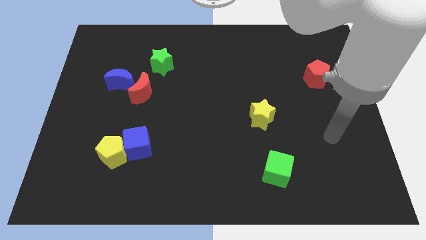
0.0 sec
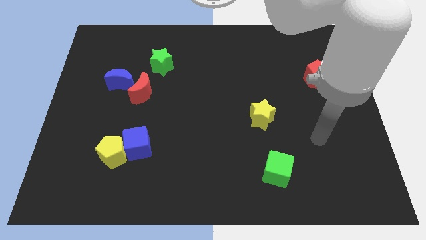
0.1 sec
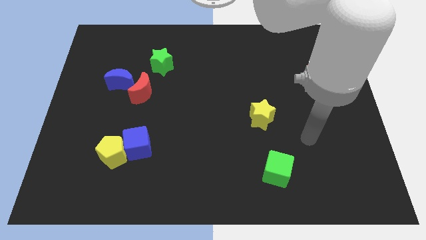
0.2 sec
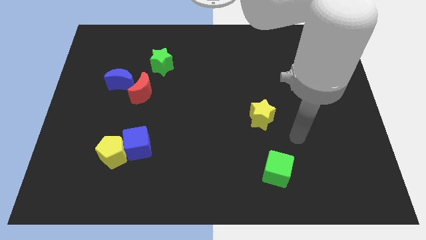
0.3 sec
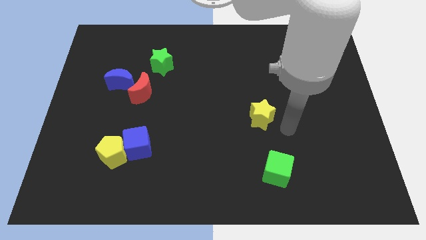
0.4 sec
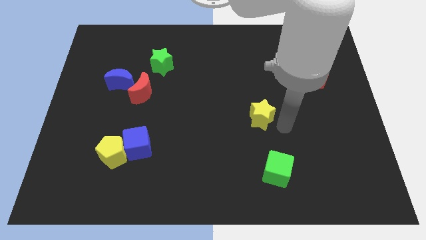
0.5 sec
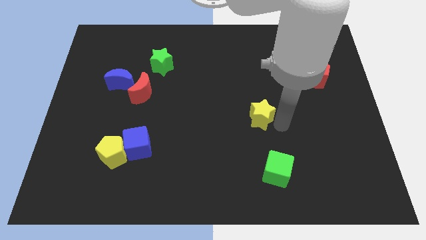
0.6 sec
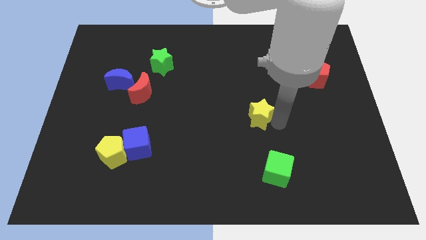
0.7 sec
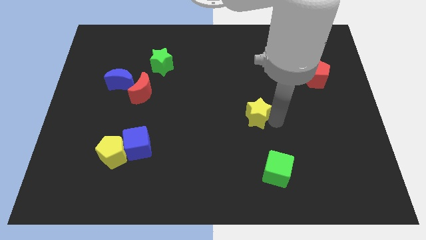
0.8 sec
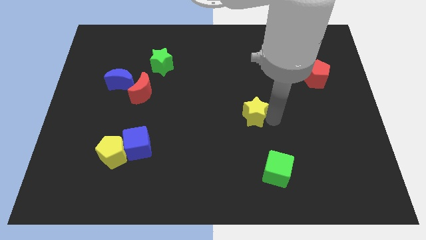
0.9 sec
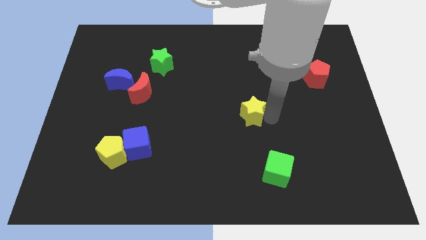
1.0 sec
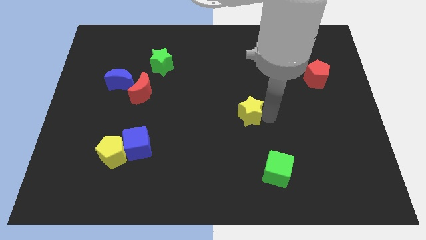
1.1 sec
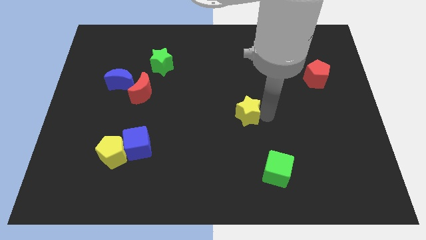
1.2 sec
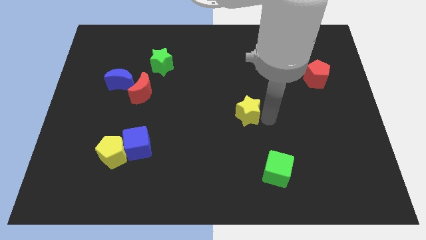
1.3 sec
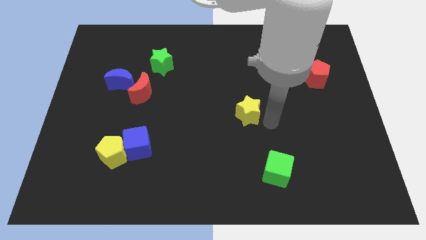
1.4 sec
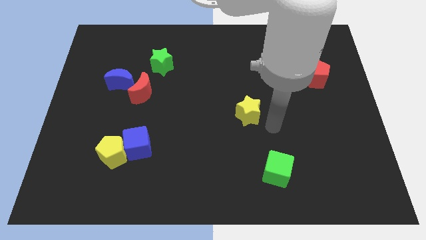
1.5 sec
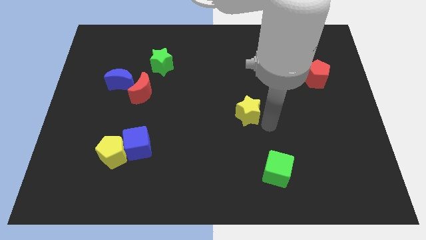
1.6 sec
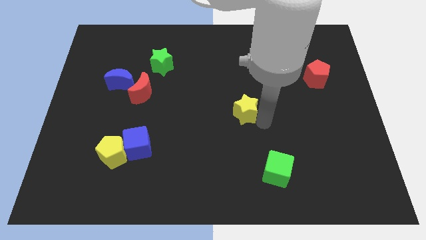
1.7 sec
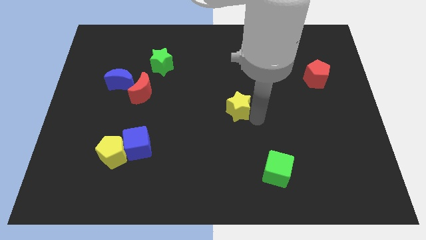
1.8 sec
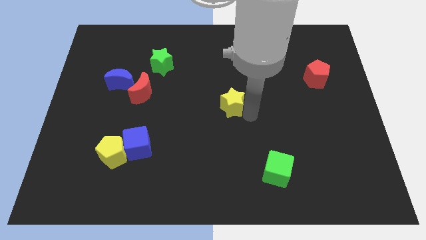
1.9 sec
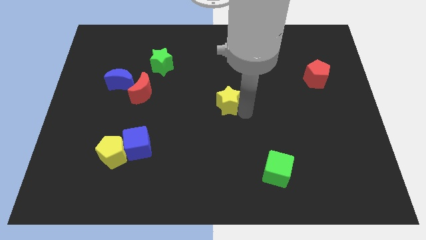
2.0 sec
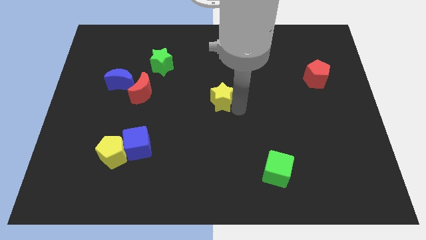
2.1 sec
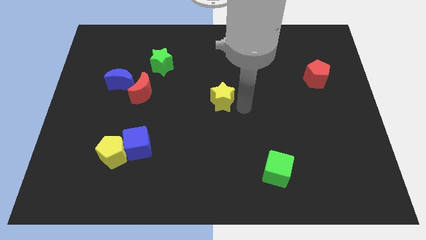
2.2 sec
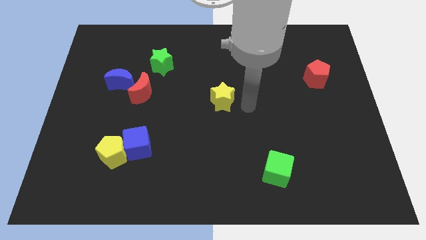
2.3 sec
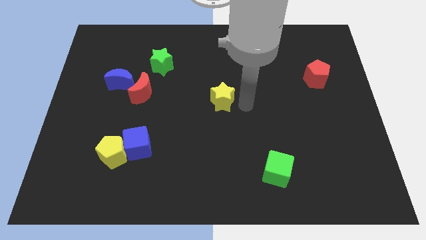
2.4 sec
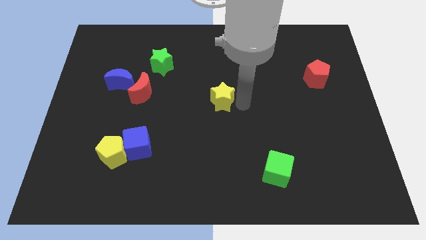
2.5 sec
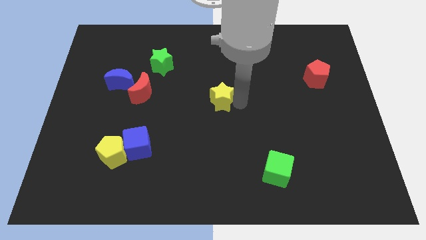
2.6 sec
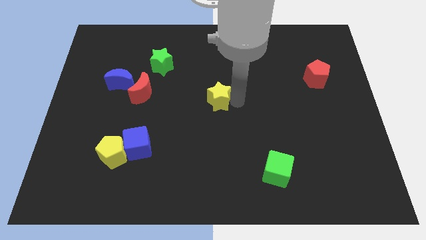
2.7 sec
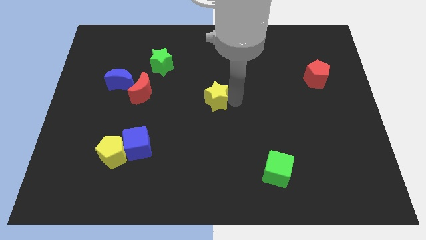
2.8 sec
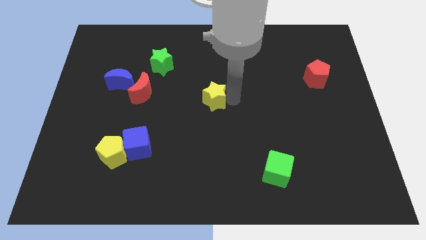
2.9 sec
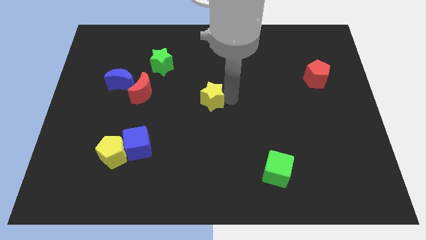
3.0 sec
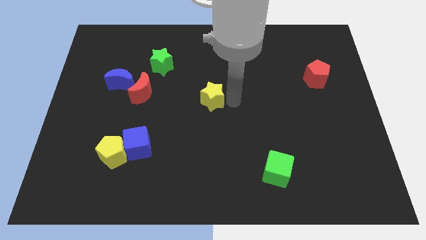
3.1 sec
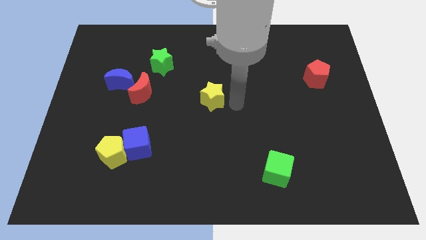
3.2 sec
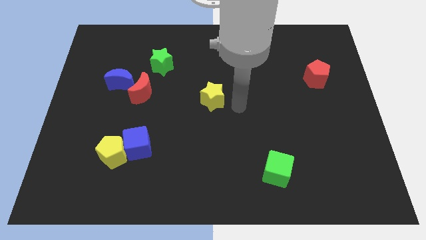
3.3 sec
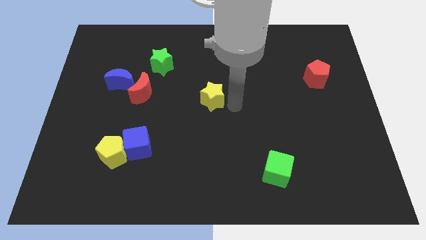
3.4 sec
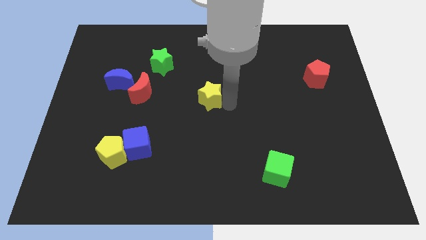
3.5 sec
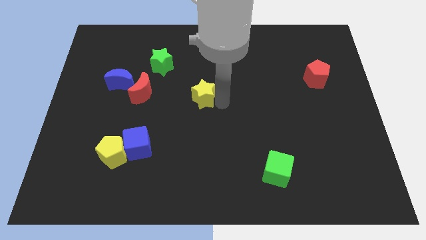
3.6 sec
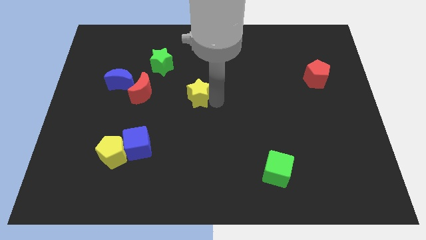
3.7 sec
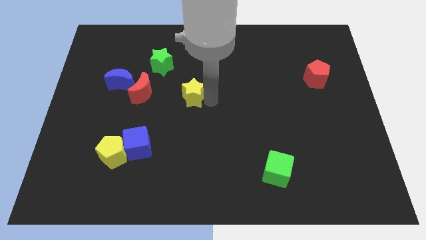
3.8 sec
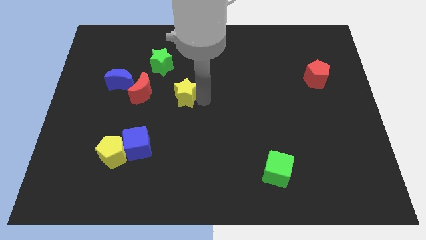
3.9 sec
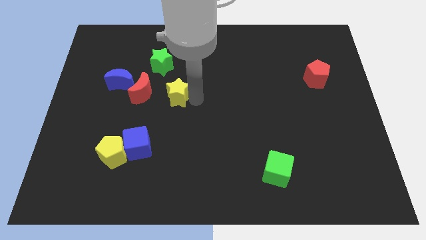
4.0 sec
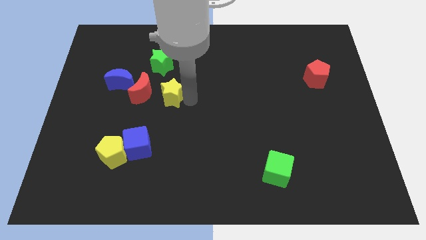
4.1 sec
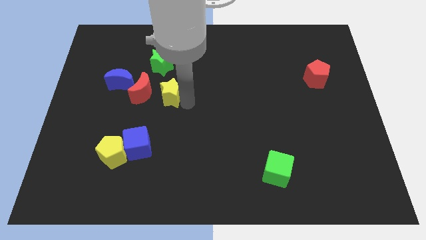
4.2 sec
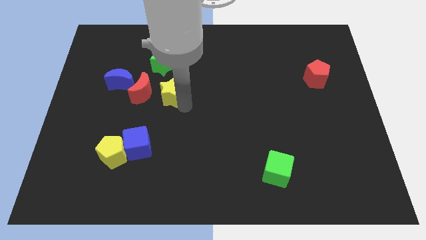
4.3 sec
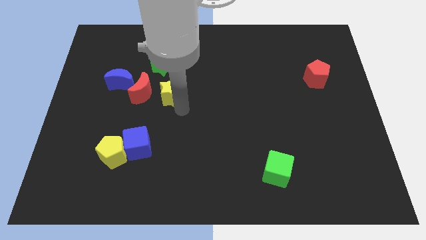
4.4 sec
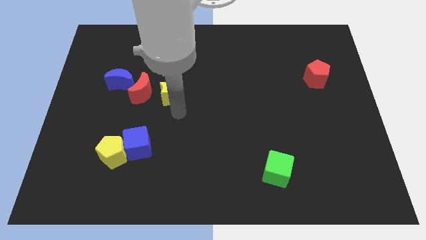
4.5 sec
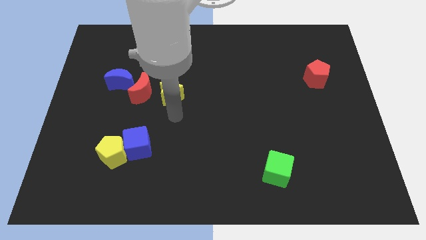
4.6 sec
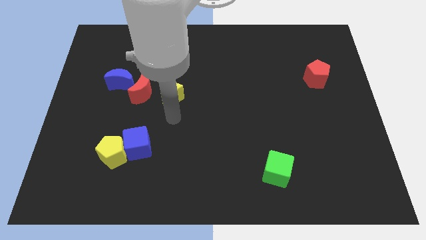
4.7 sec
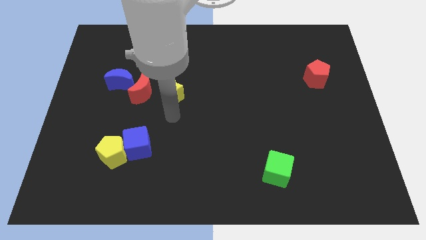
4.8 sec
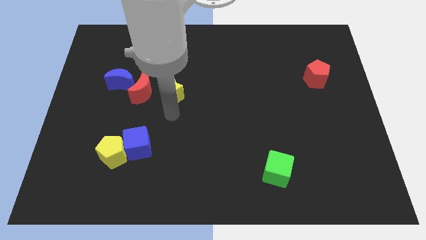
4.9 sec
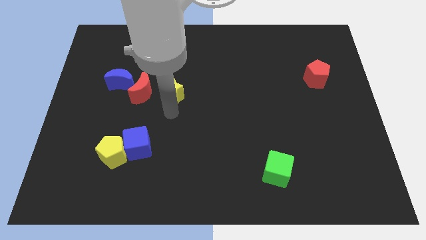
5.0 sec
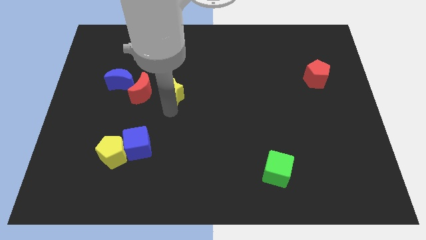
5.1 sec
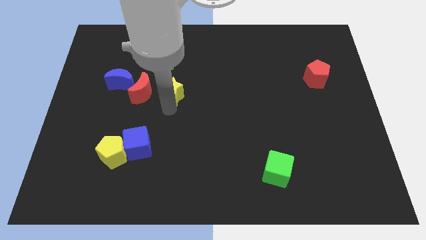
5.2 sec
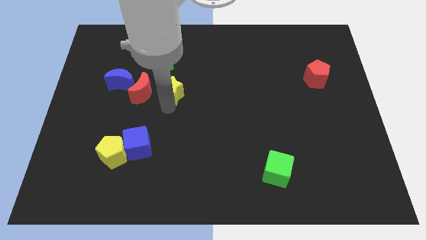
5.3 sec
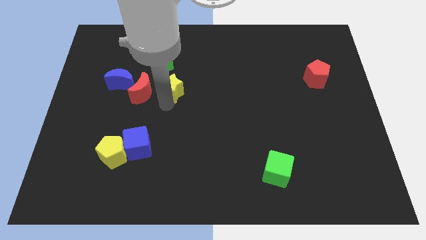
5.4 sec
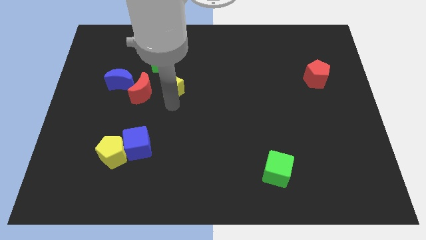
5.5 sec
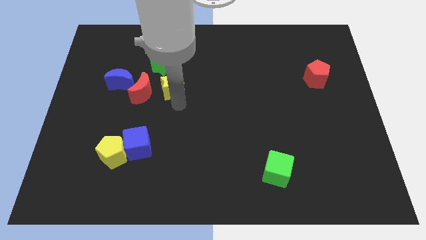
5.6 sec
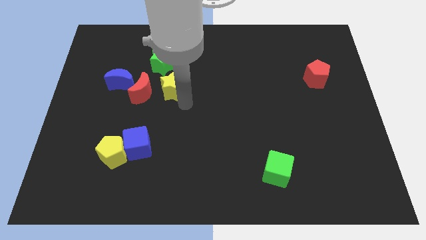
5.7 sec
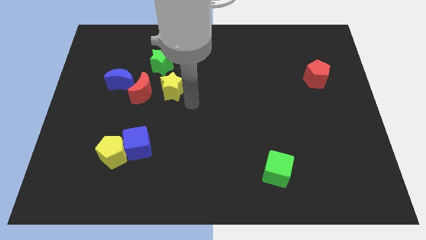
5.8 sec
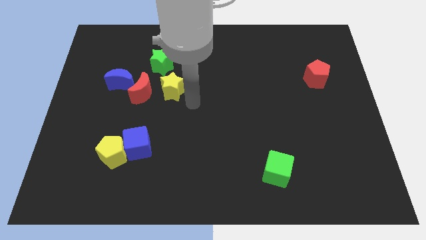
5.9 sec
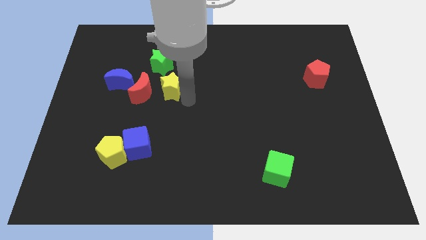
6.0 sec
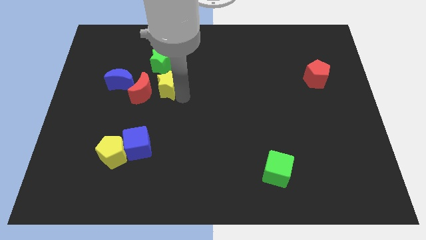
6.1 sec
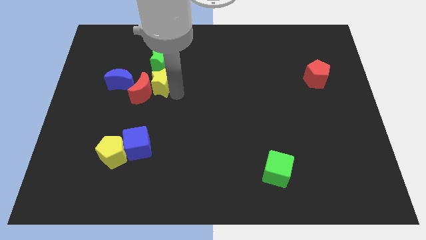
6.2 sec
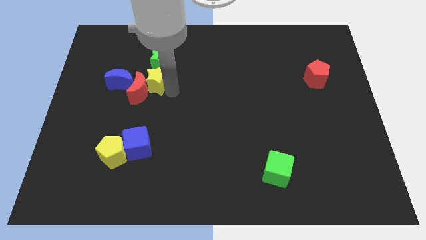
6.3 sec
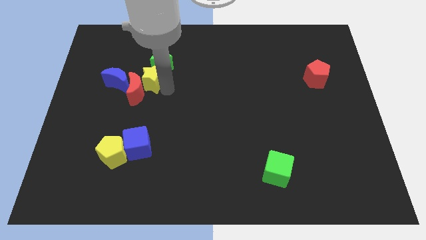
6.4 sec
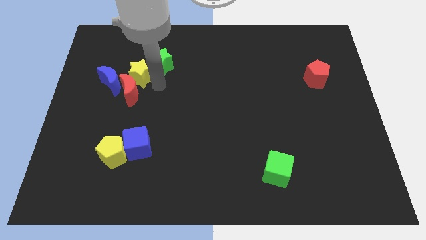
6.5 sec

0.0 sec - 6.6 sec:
put the yellow star to the left side of the green star

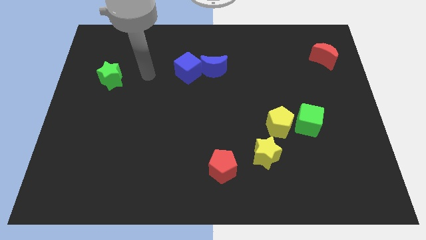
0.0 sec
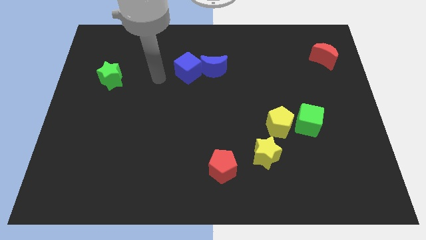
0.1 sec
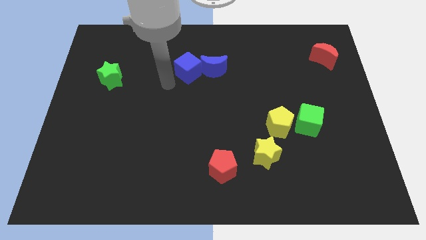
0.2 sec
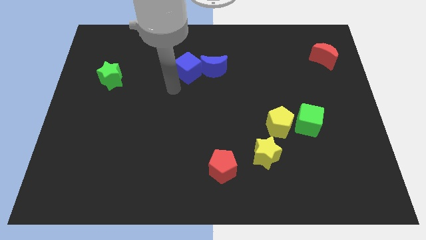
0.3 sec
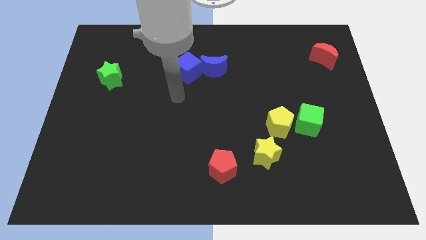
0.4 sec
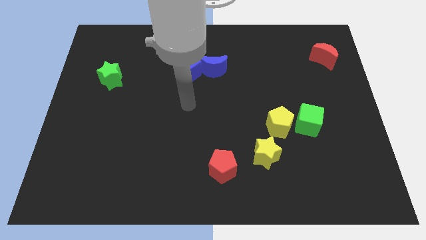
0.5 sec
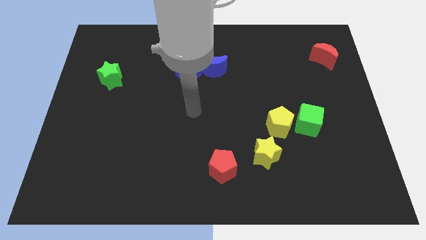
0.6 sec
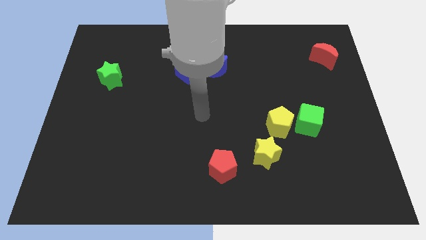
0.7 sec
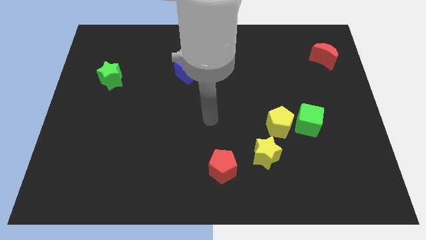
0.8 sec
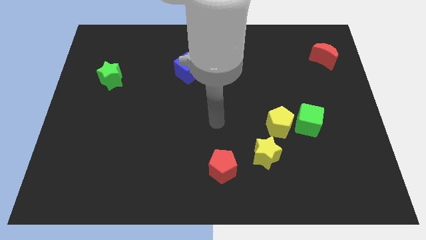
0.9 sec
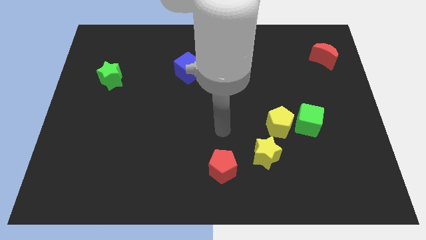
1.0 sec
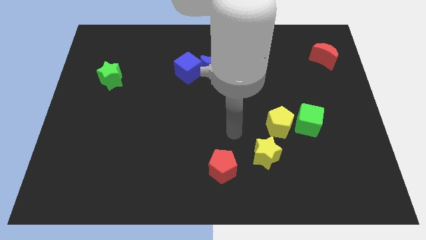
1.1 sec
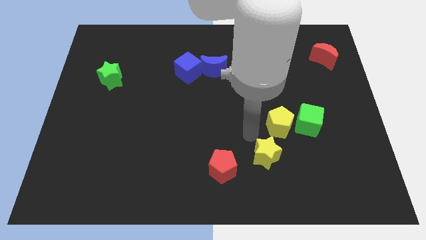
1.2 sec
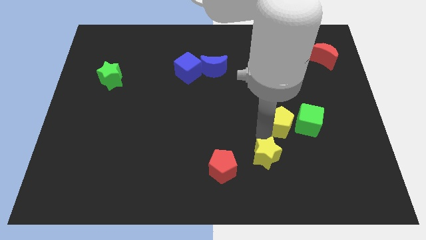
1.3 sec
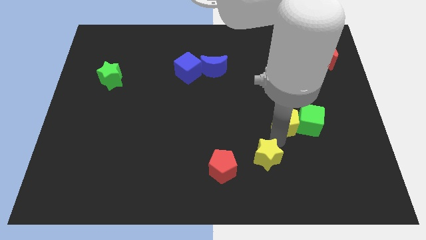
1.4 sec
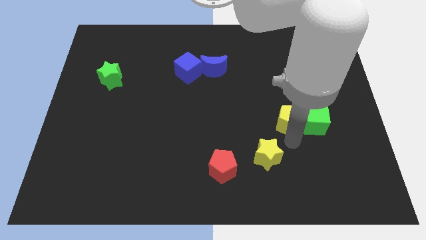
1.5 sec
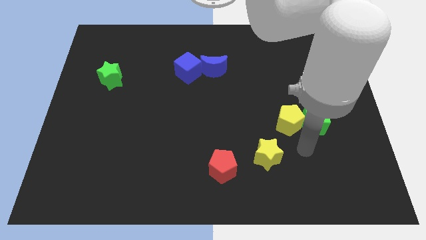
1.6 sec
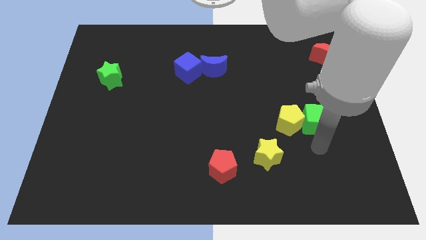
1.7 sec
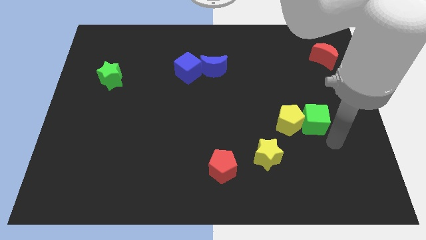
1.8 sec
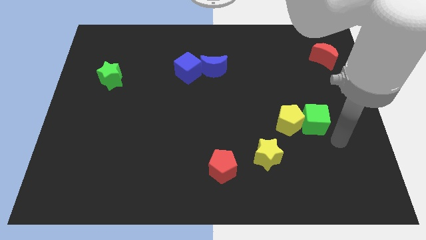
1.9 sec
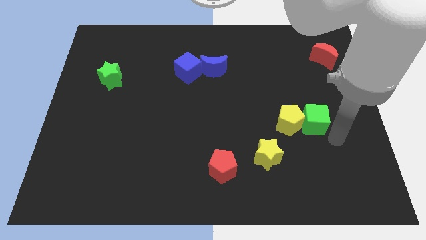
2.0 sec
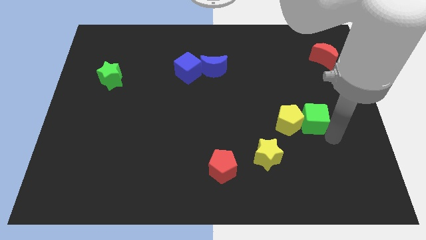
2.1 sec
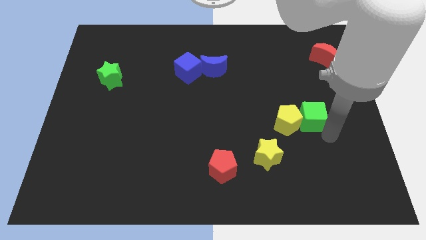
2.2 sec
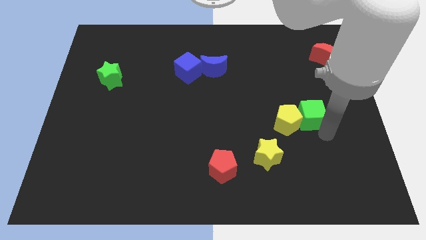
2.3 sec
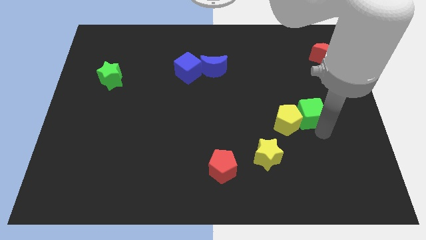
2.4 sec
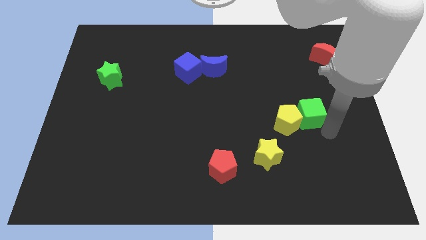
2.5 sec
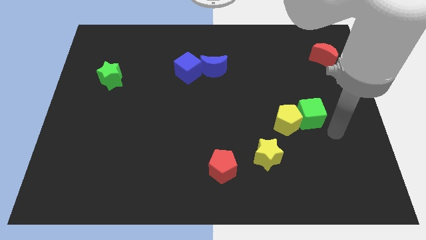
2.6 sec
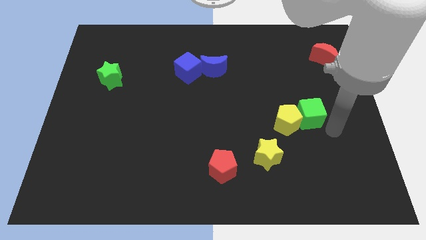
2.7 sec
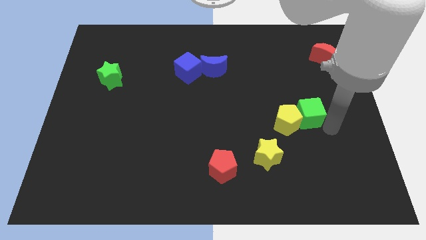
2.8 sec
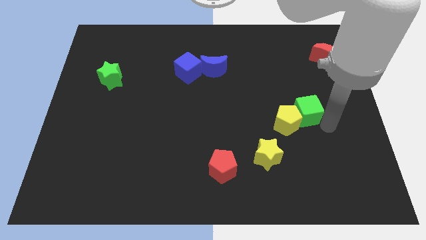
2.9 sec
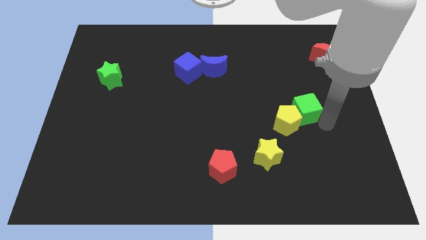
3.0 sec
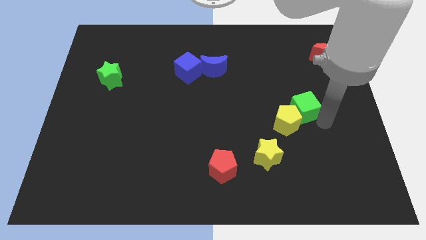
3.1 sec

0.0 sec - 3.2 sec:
put the green cube to the top side of the yellow pentagon
